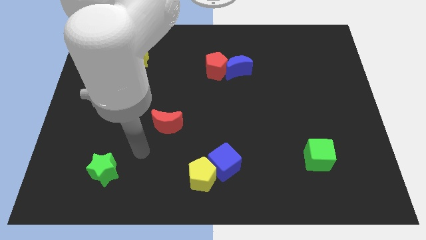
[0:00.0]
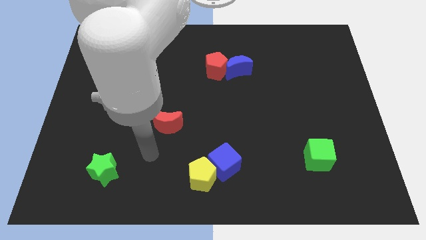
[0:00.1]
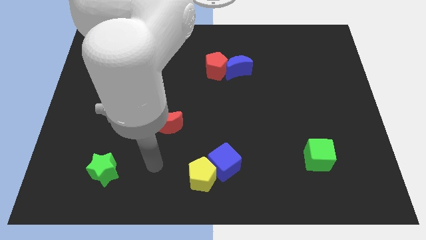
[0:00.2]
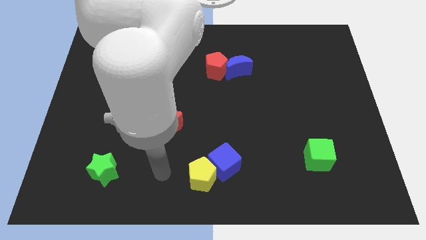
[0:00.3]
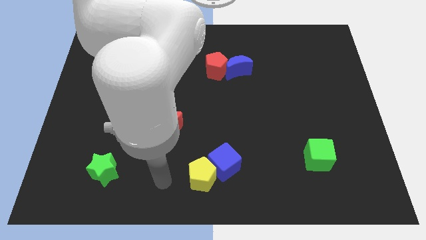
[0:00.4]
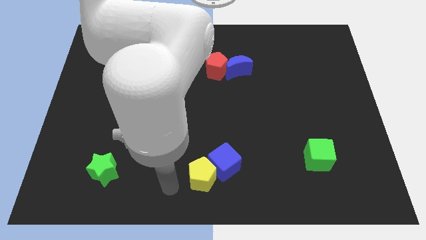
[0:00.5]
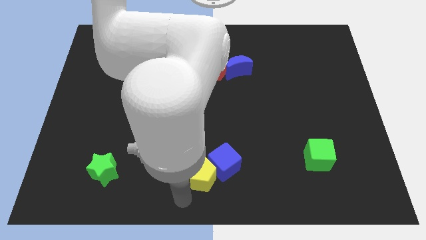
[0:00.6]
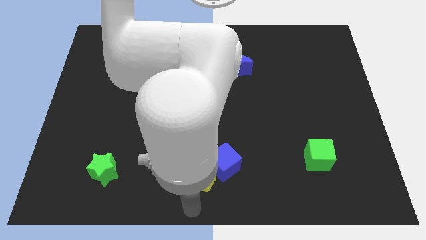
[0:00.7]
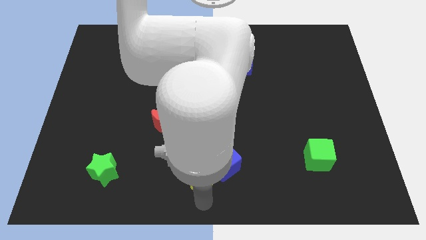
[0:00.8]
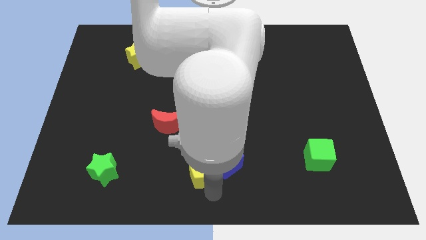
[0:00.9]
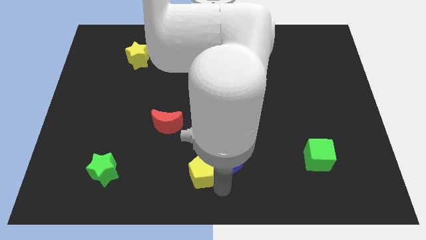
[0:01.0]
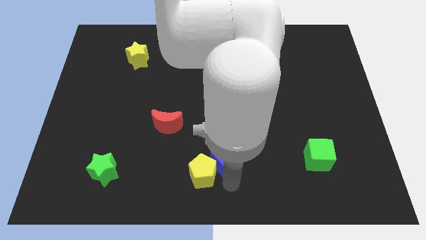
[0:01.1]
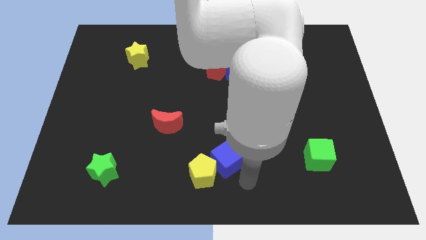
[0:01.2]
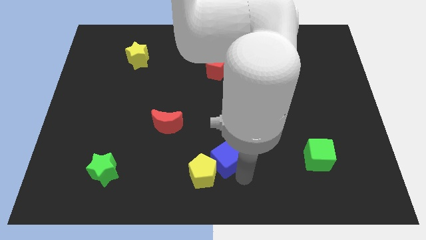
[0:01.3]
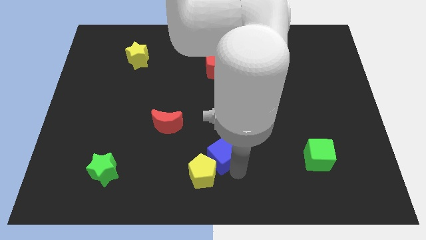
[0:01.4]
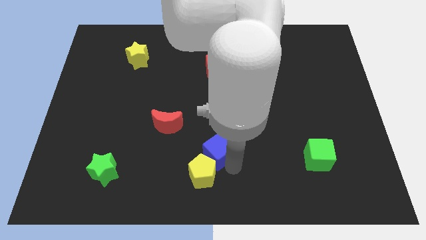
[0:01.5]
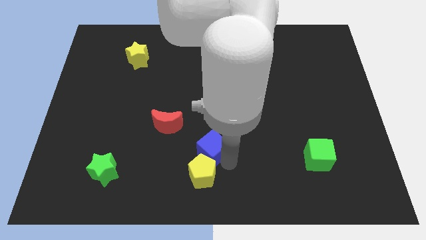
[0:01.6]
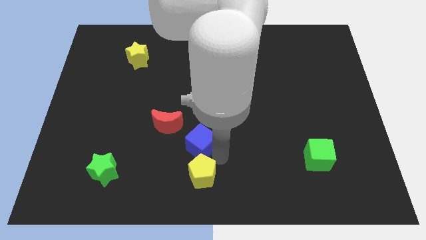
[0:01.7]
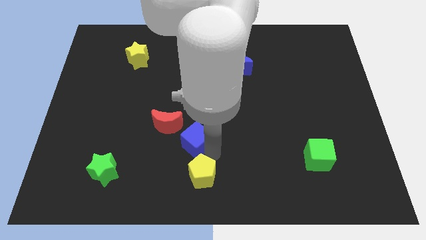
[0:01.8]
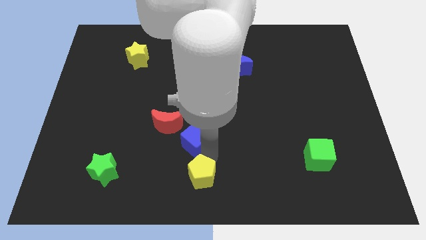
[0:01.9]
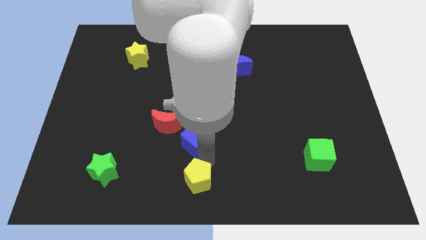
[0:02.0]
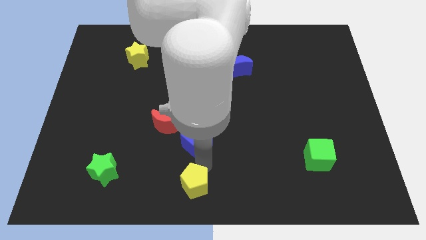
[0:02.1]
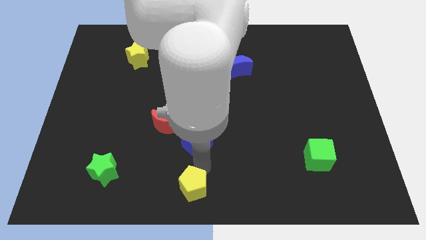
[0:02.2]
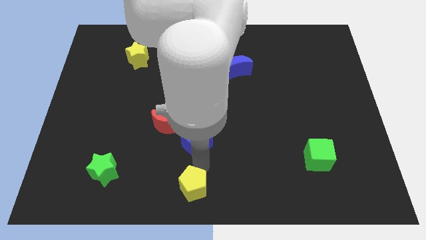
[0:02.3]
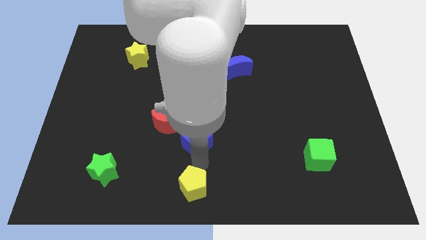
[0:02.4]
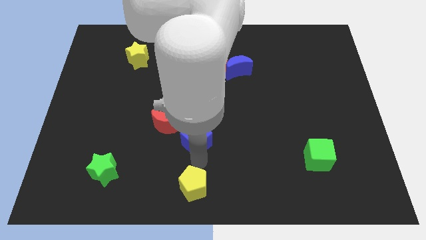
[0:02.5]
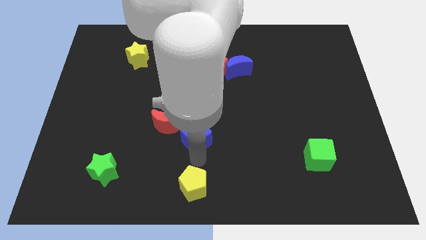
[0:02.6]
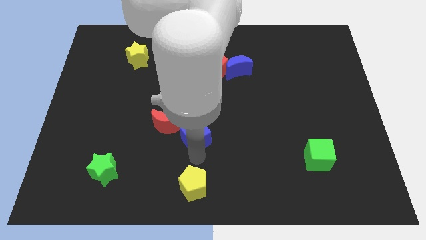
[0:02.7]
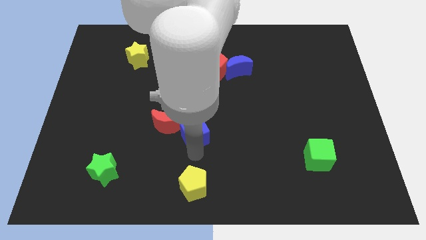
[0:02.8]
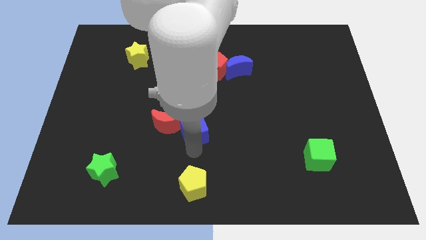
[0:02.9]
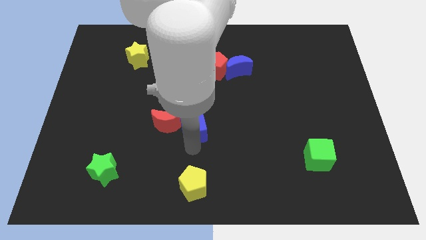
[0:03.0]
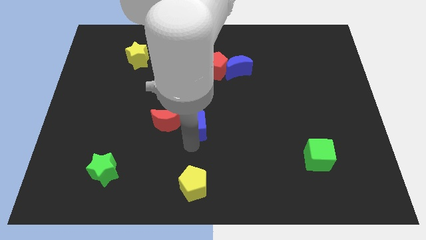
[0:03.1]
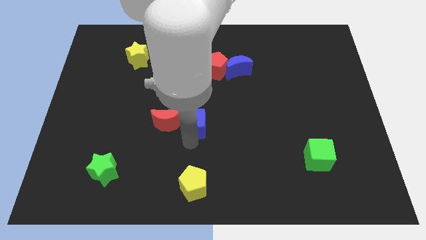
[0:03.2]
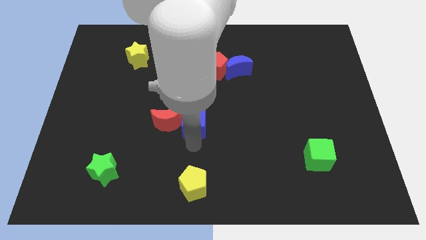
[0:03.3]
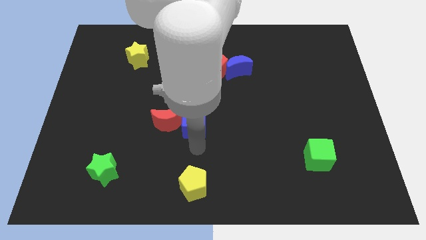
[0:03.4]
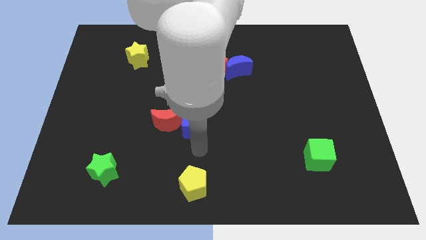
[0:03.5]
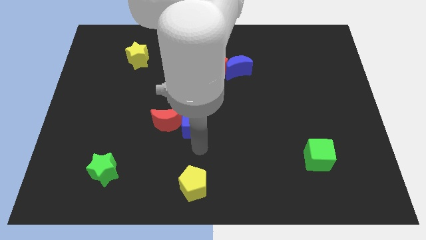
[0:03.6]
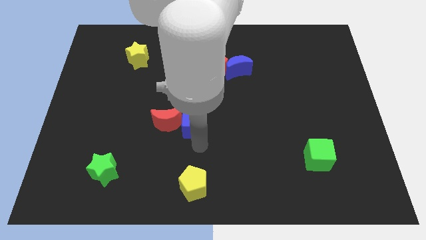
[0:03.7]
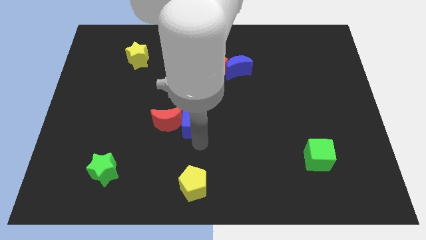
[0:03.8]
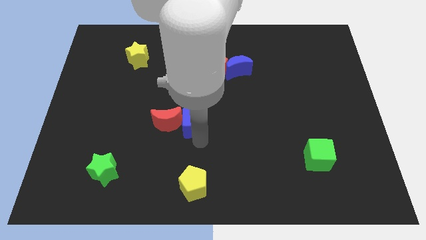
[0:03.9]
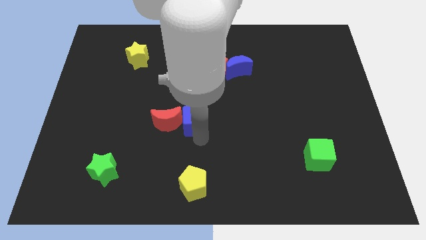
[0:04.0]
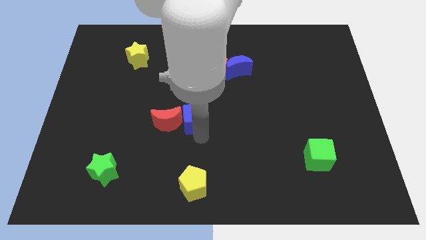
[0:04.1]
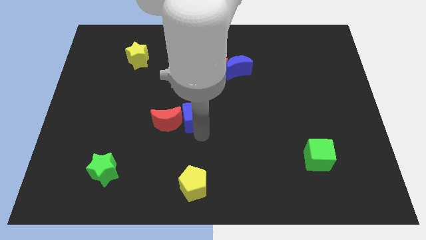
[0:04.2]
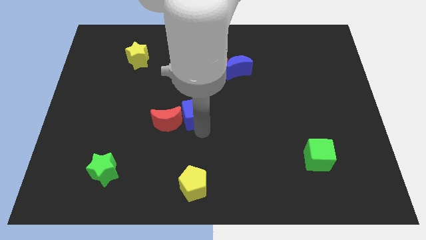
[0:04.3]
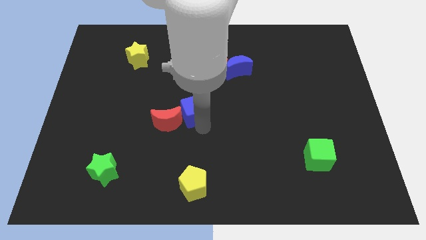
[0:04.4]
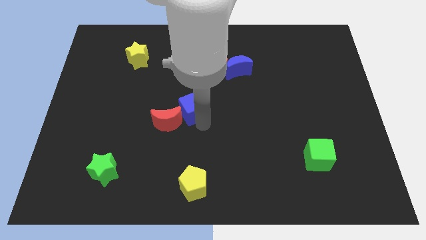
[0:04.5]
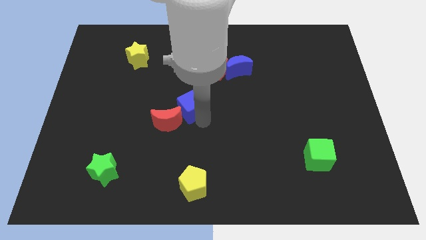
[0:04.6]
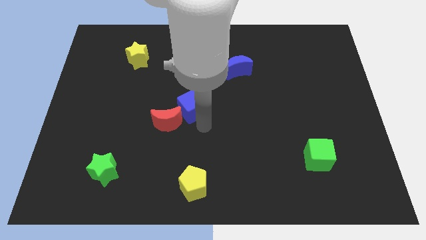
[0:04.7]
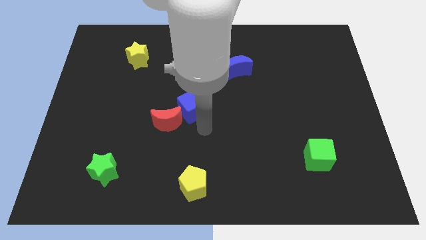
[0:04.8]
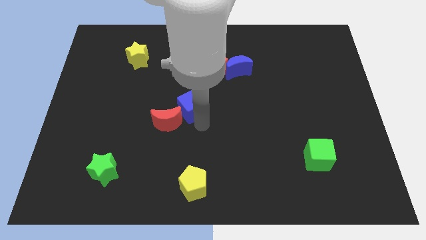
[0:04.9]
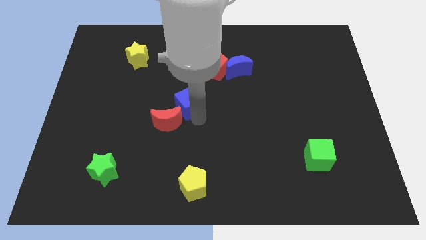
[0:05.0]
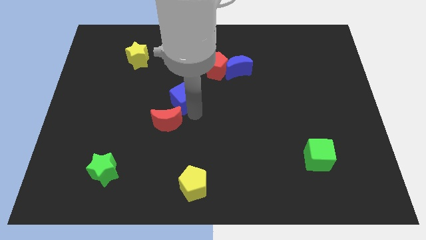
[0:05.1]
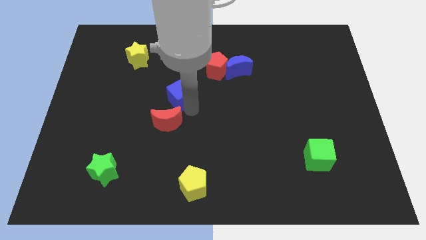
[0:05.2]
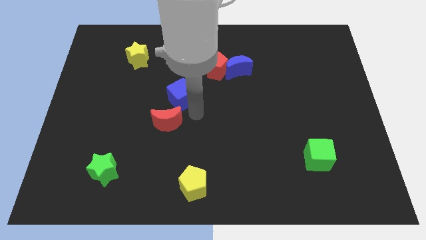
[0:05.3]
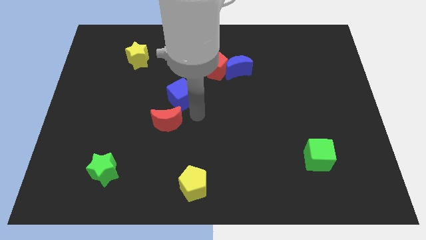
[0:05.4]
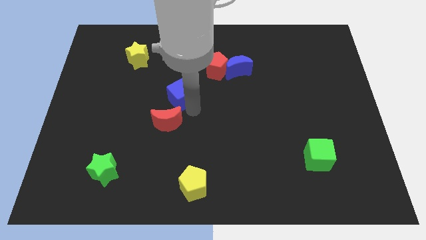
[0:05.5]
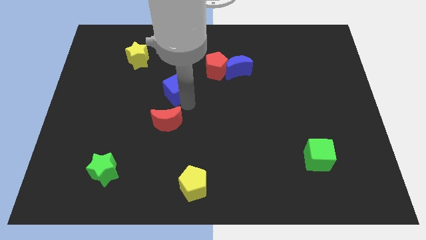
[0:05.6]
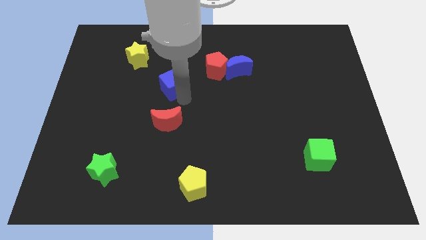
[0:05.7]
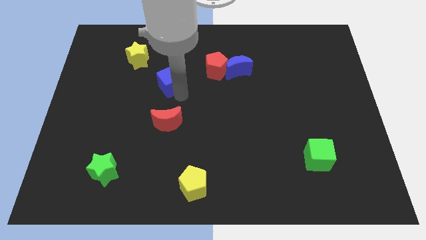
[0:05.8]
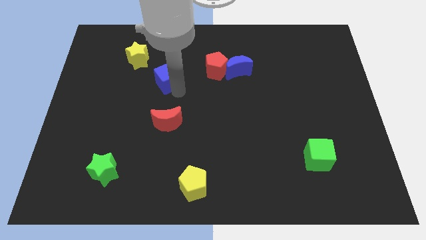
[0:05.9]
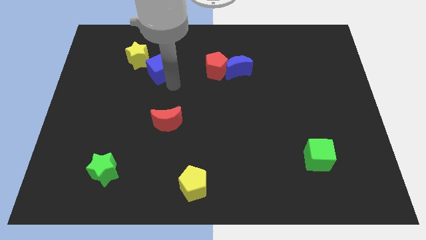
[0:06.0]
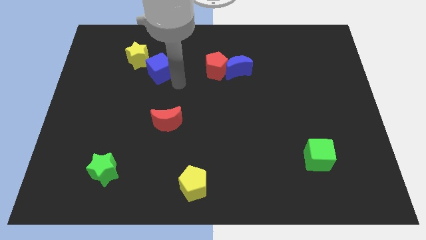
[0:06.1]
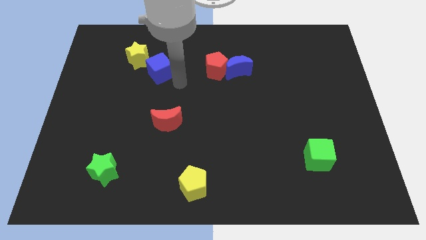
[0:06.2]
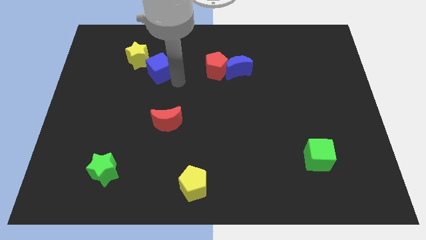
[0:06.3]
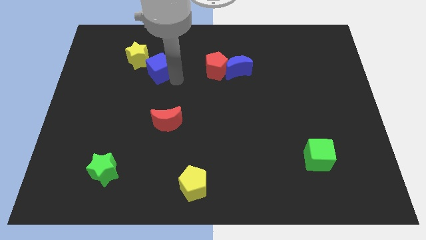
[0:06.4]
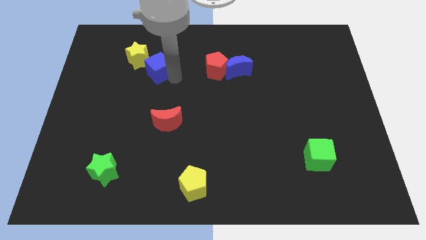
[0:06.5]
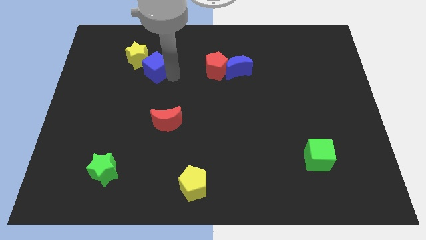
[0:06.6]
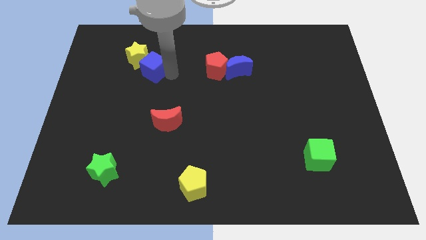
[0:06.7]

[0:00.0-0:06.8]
slide the blue cube towards the yellow star

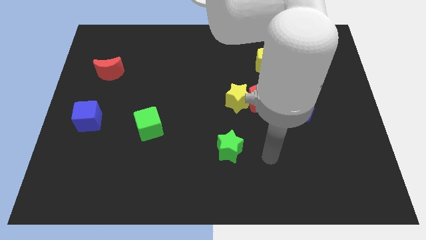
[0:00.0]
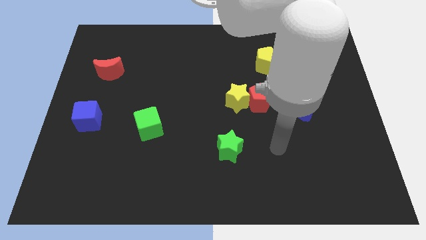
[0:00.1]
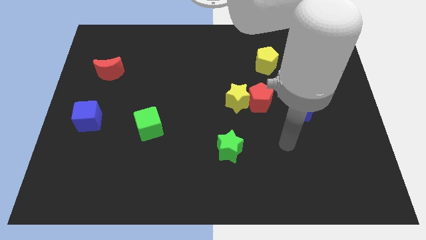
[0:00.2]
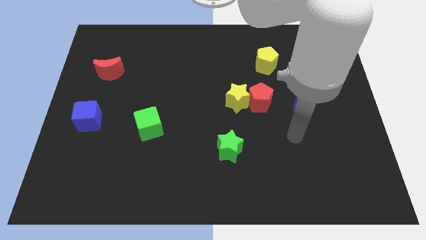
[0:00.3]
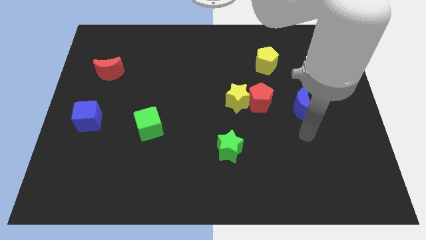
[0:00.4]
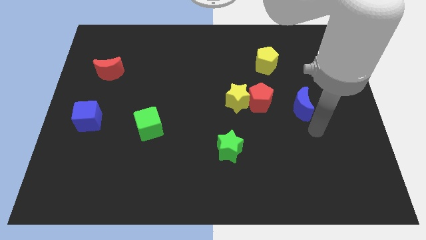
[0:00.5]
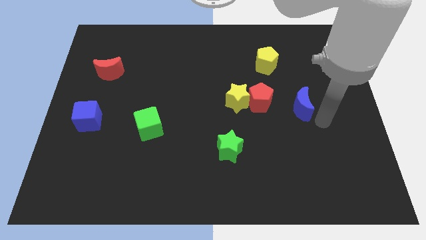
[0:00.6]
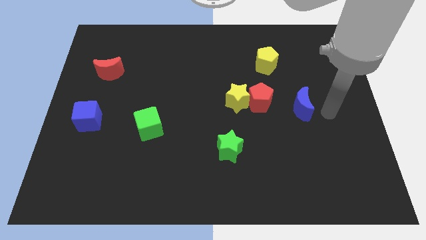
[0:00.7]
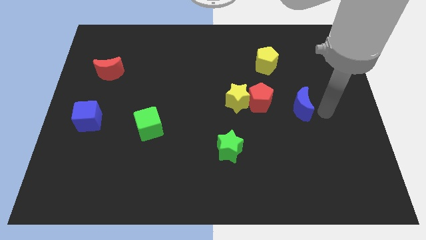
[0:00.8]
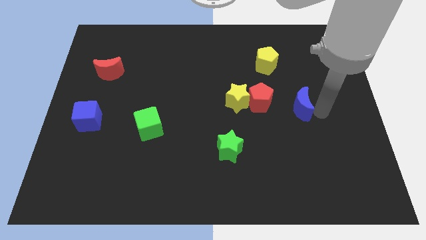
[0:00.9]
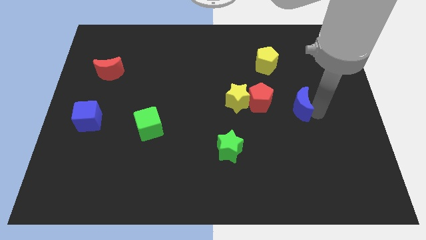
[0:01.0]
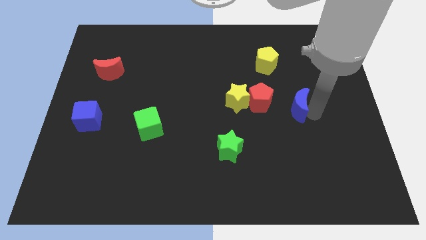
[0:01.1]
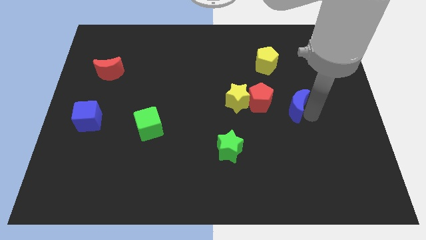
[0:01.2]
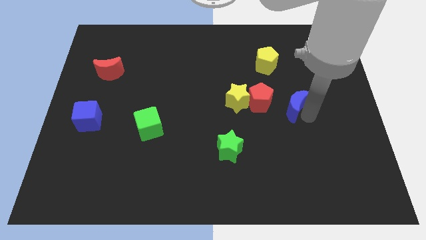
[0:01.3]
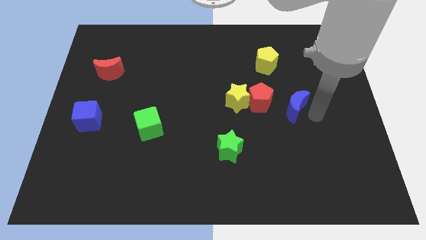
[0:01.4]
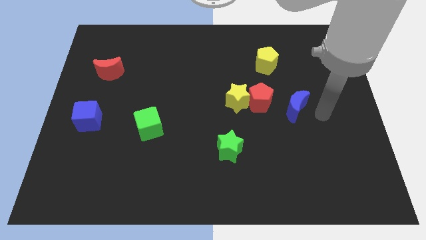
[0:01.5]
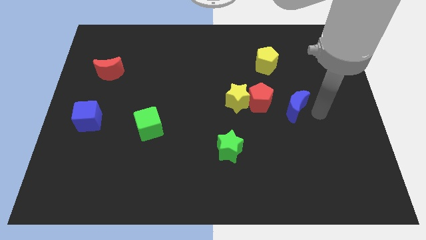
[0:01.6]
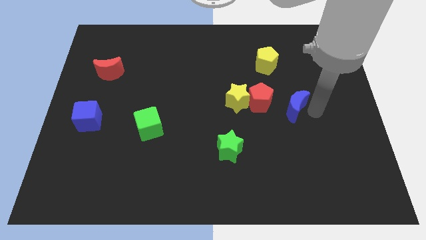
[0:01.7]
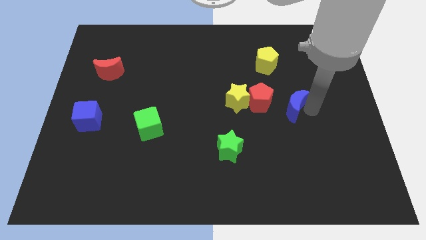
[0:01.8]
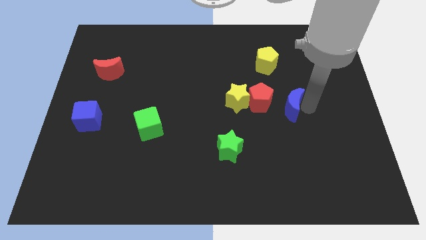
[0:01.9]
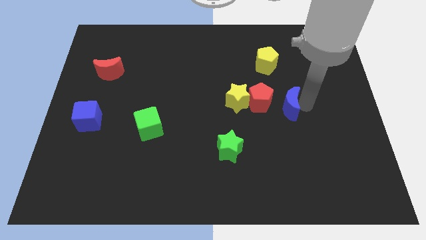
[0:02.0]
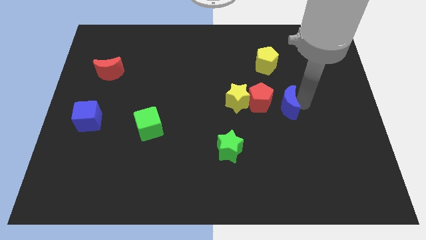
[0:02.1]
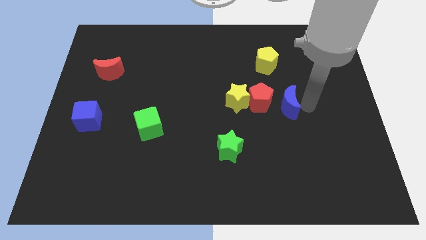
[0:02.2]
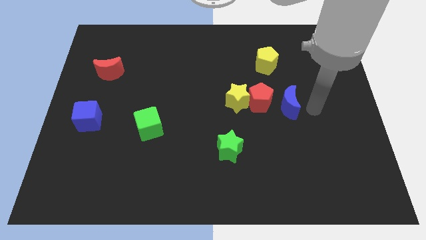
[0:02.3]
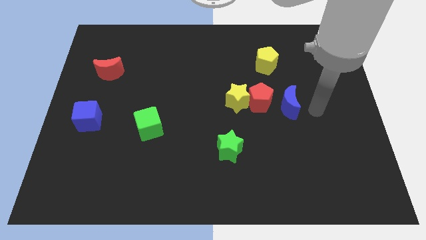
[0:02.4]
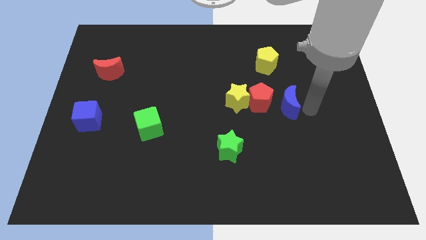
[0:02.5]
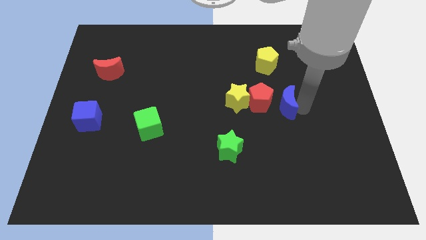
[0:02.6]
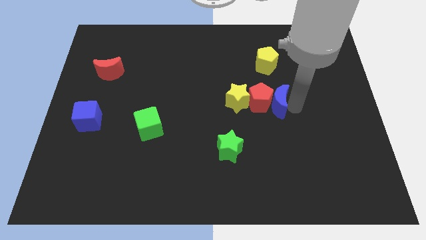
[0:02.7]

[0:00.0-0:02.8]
slide the blue moon to the red pentagon
